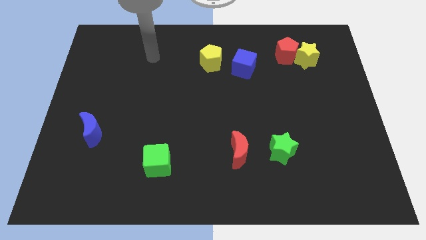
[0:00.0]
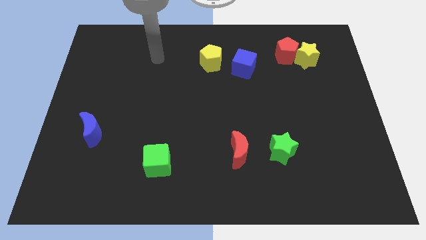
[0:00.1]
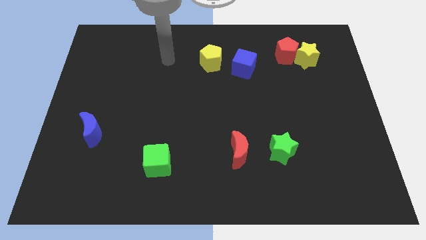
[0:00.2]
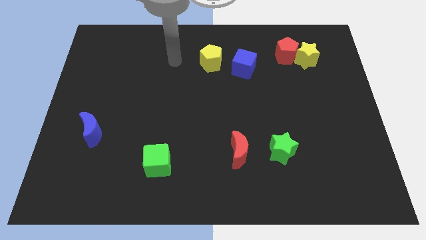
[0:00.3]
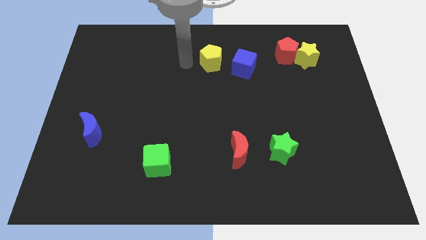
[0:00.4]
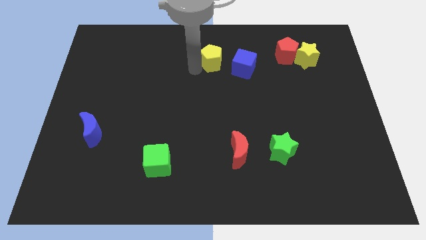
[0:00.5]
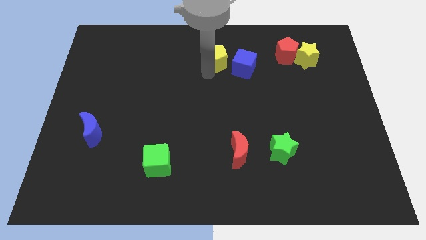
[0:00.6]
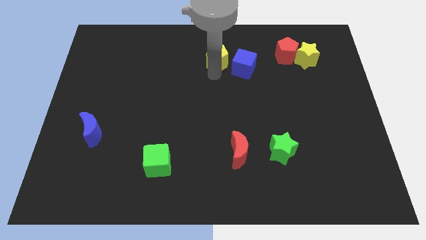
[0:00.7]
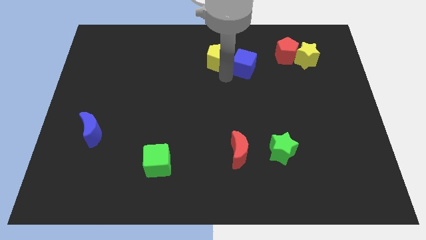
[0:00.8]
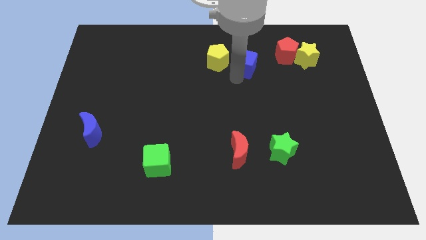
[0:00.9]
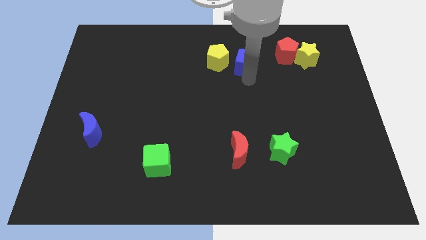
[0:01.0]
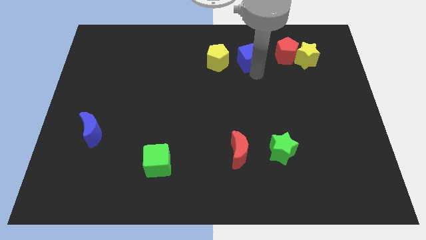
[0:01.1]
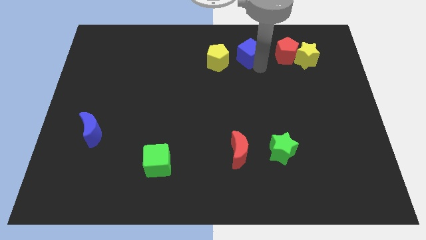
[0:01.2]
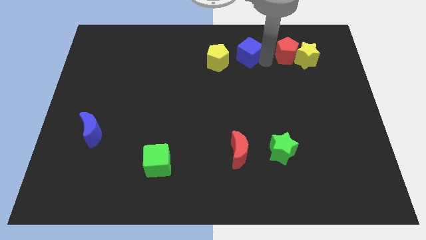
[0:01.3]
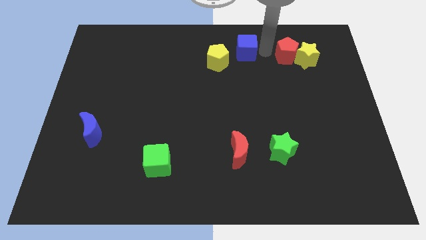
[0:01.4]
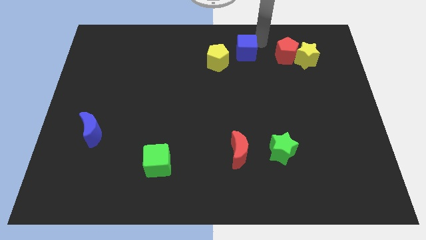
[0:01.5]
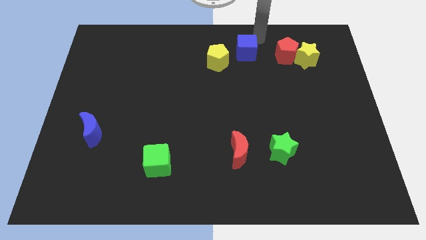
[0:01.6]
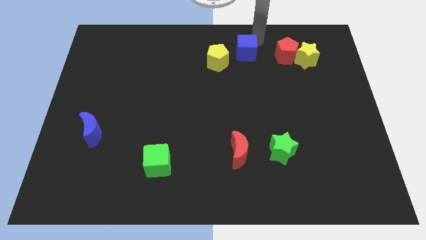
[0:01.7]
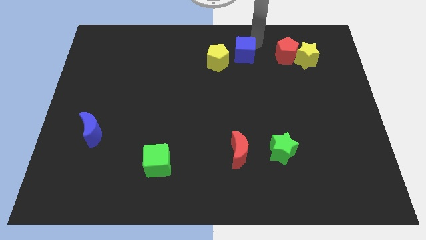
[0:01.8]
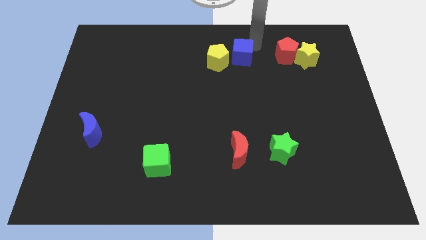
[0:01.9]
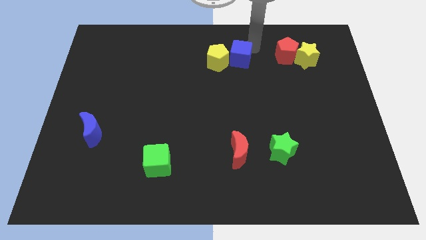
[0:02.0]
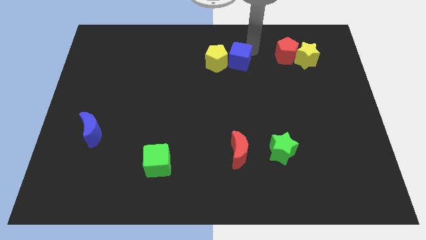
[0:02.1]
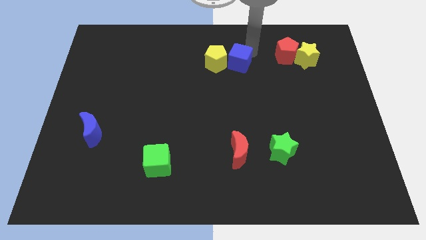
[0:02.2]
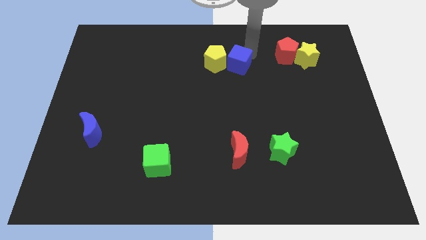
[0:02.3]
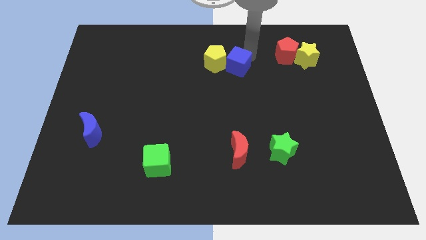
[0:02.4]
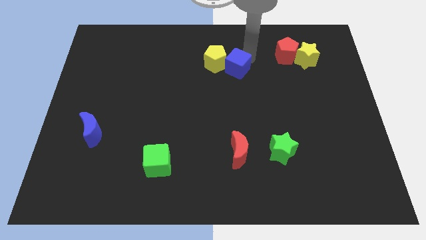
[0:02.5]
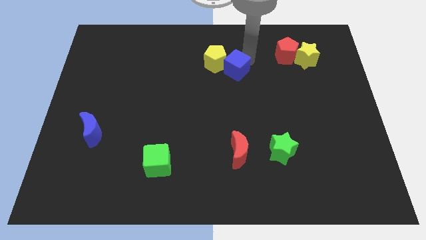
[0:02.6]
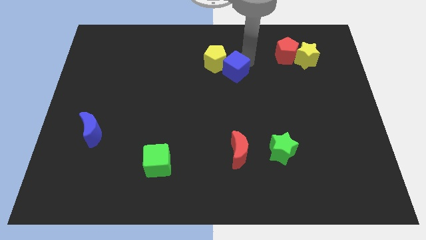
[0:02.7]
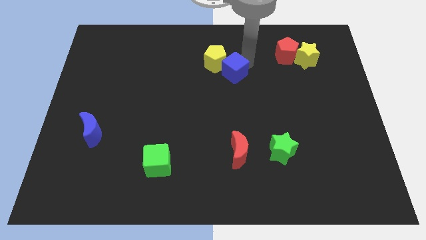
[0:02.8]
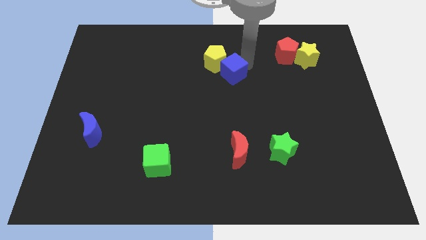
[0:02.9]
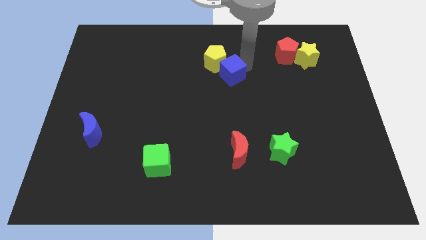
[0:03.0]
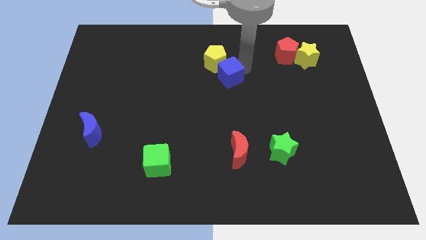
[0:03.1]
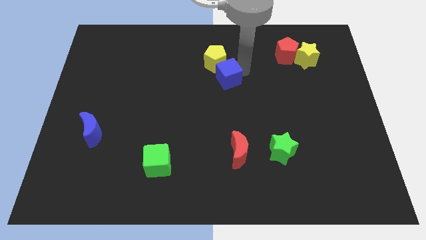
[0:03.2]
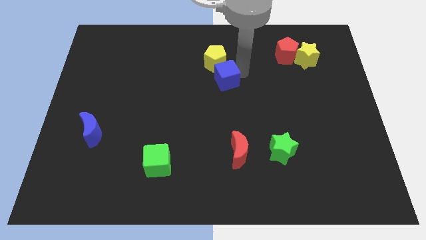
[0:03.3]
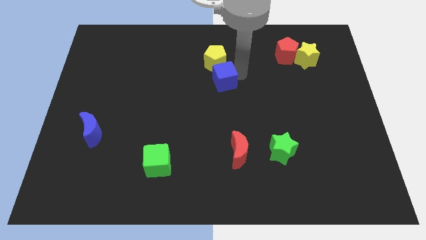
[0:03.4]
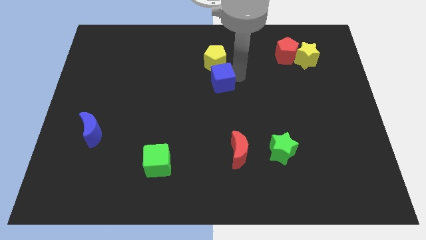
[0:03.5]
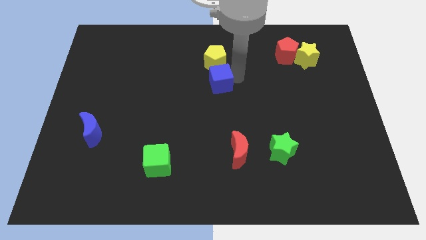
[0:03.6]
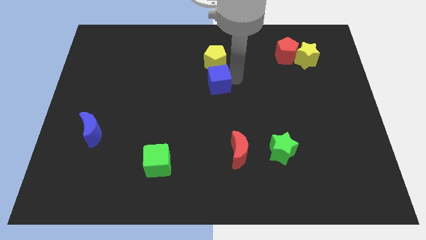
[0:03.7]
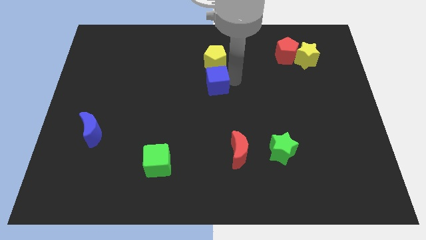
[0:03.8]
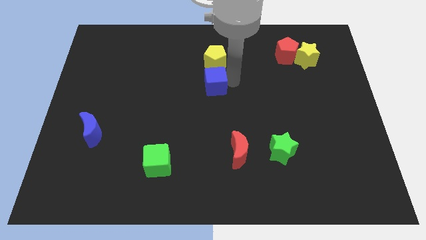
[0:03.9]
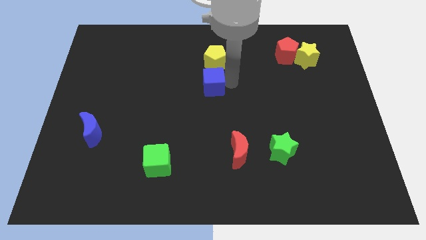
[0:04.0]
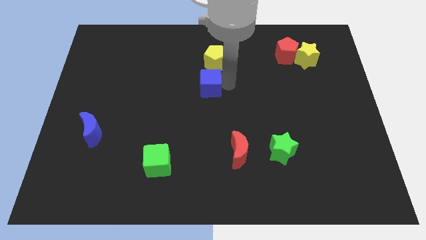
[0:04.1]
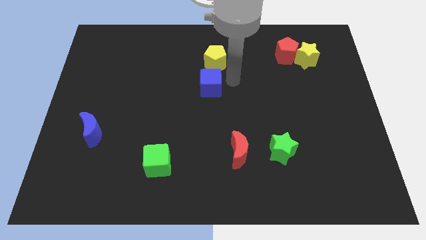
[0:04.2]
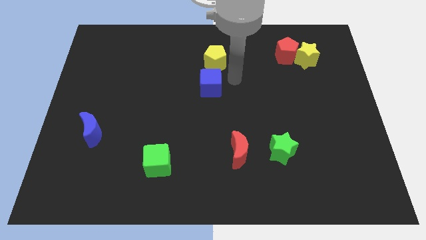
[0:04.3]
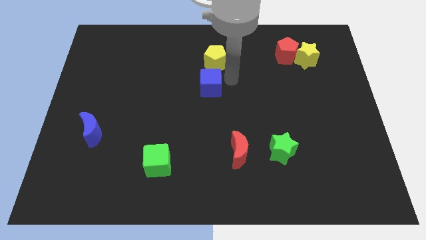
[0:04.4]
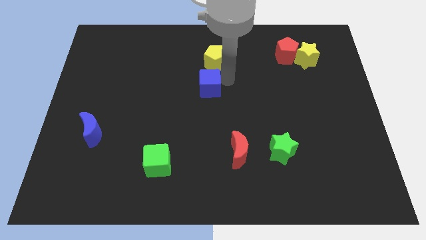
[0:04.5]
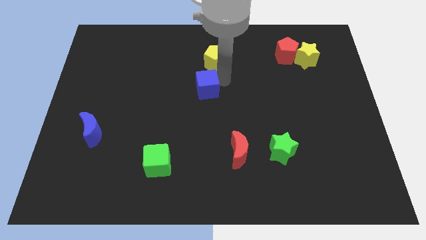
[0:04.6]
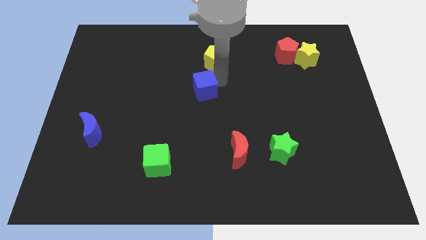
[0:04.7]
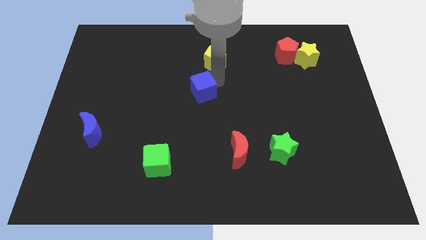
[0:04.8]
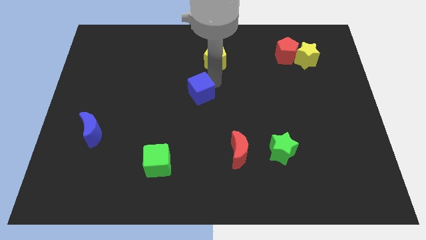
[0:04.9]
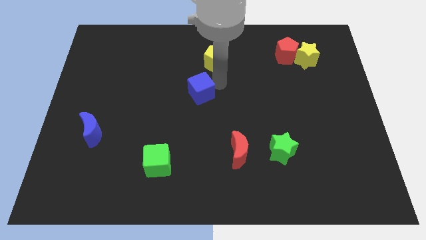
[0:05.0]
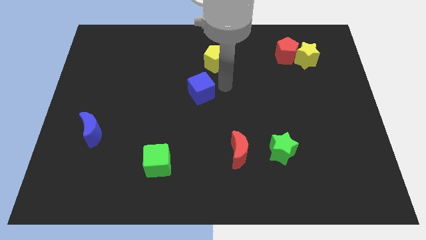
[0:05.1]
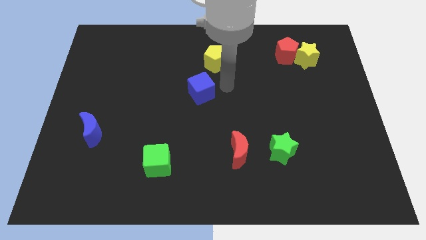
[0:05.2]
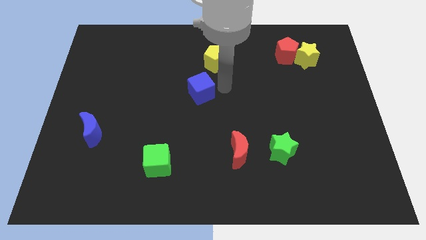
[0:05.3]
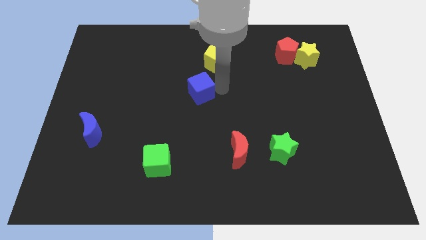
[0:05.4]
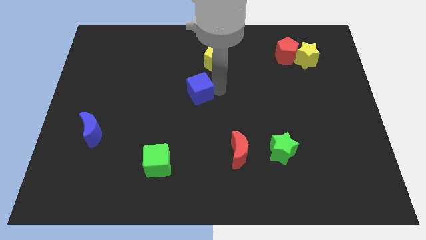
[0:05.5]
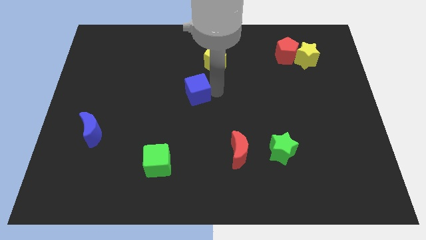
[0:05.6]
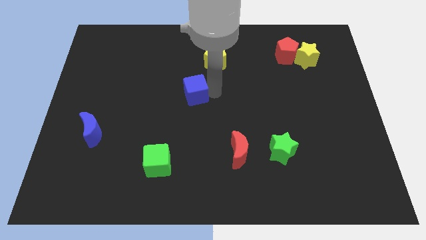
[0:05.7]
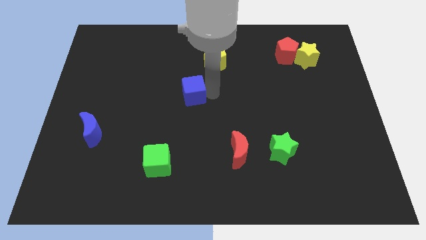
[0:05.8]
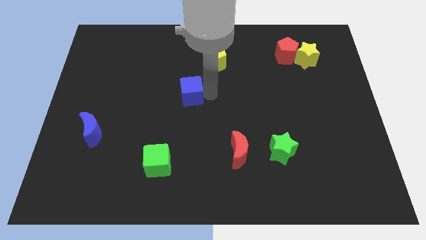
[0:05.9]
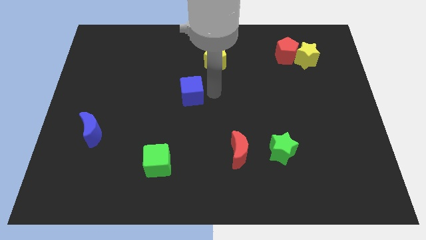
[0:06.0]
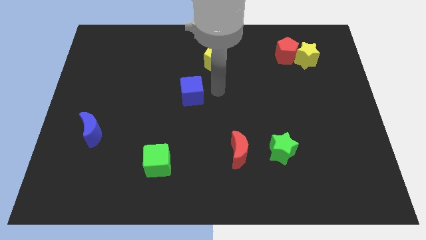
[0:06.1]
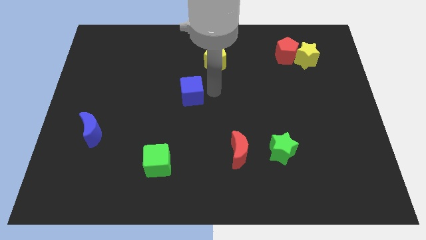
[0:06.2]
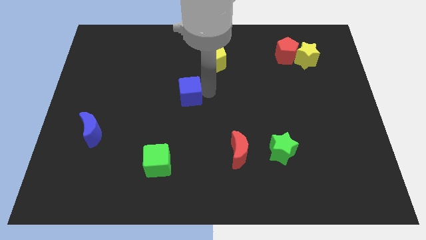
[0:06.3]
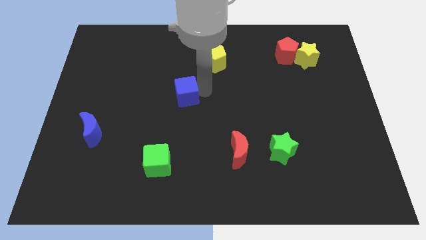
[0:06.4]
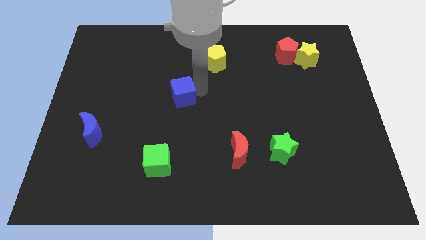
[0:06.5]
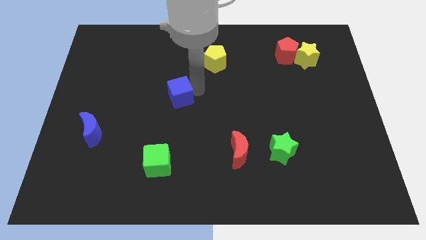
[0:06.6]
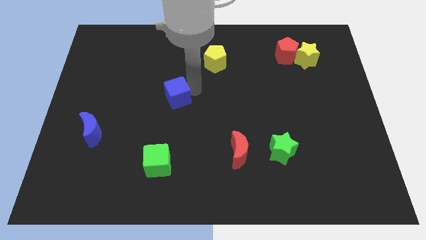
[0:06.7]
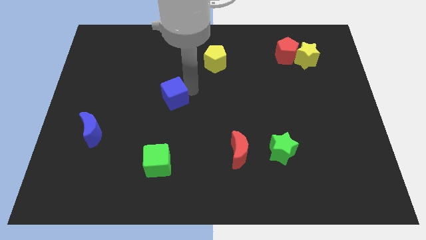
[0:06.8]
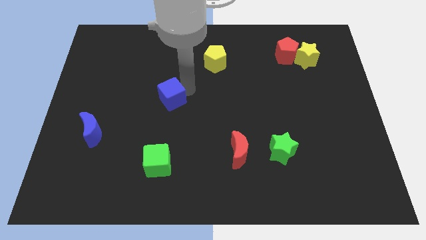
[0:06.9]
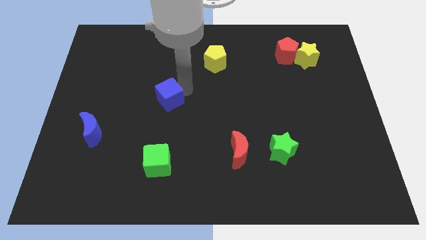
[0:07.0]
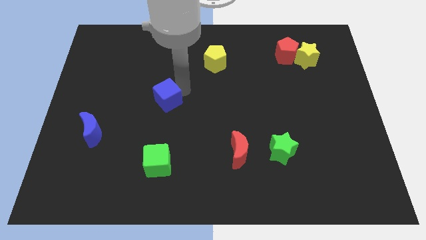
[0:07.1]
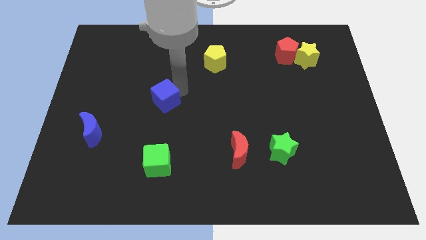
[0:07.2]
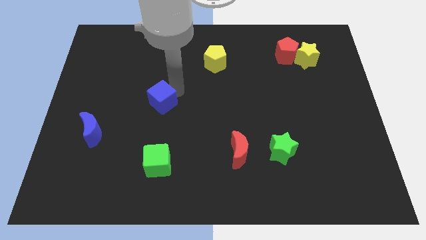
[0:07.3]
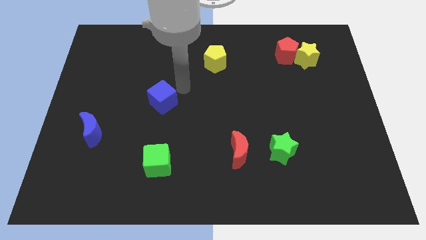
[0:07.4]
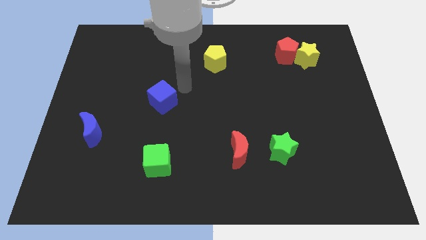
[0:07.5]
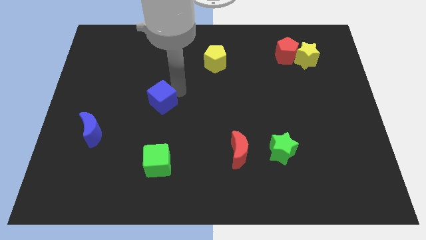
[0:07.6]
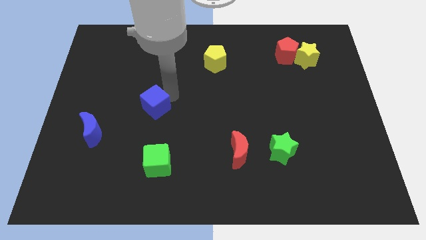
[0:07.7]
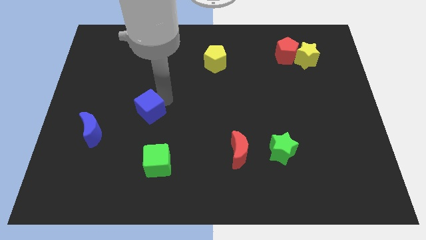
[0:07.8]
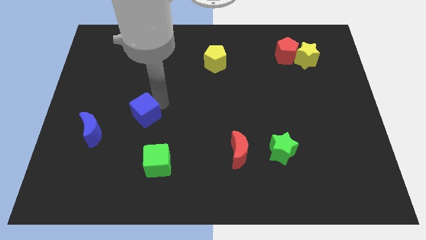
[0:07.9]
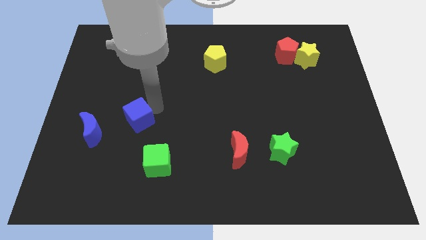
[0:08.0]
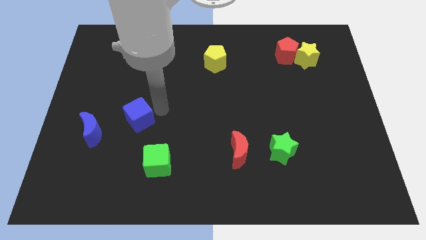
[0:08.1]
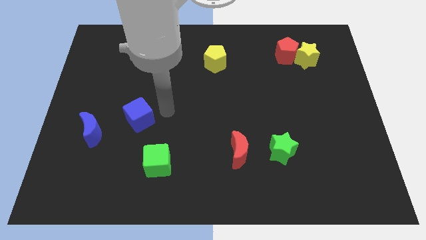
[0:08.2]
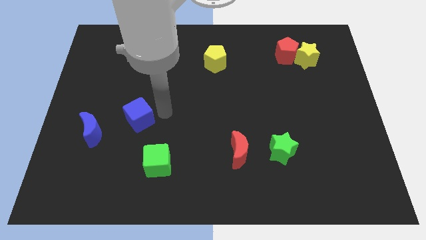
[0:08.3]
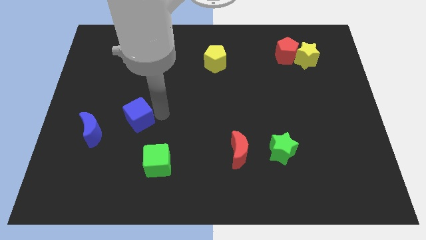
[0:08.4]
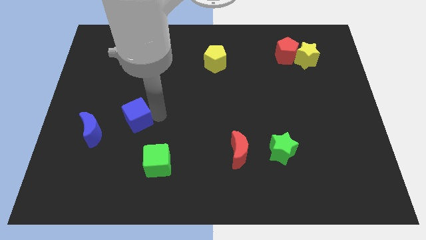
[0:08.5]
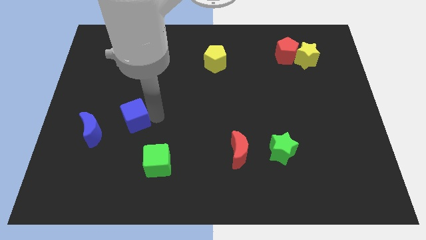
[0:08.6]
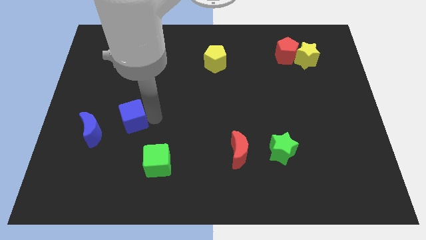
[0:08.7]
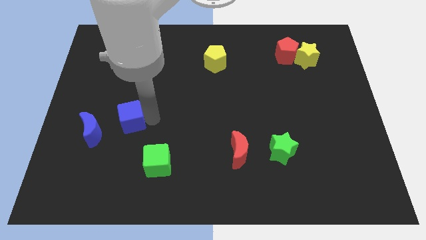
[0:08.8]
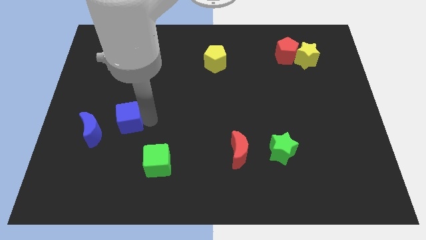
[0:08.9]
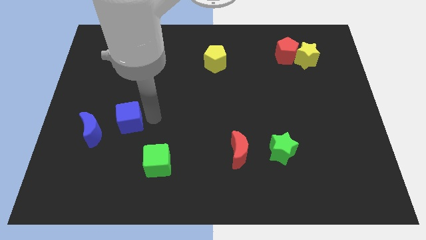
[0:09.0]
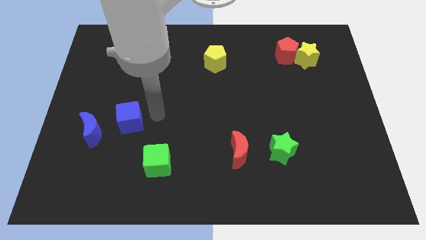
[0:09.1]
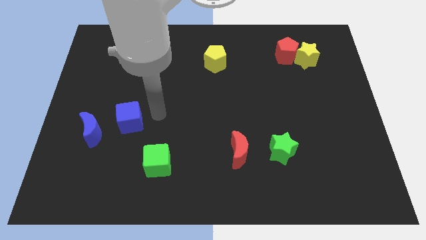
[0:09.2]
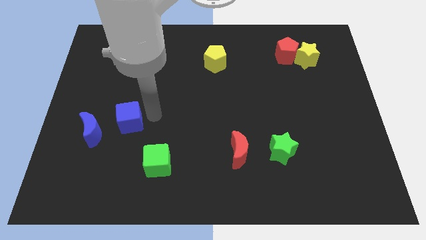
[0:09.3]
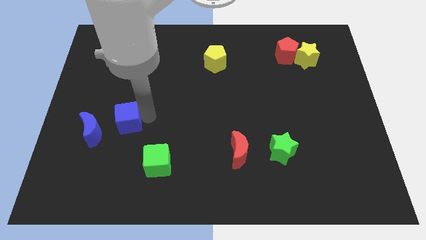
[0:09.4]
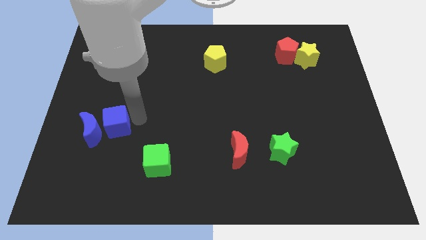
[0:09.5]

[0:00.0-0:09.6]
push the blue cube close to the blue moon
